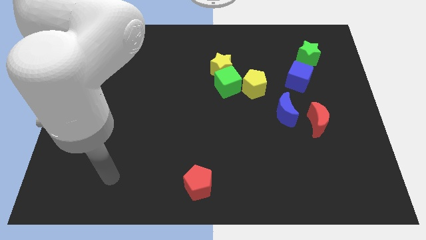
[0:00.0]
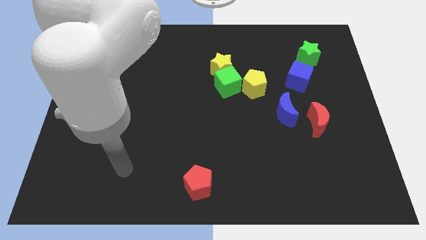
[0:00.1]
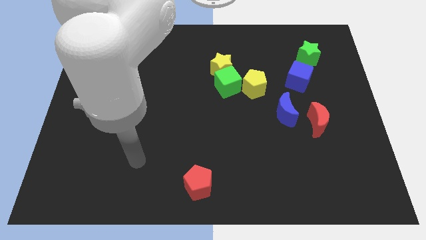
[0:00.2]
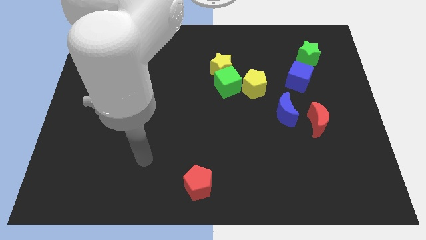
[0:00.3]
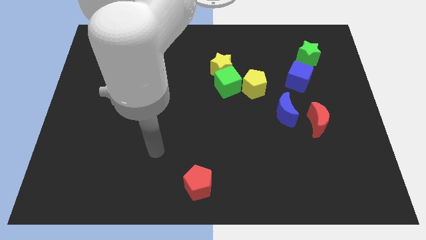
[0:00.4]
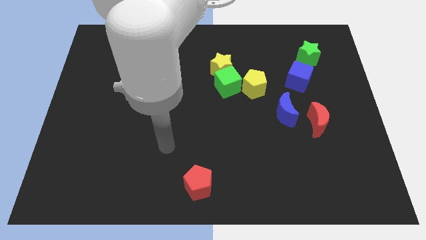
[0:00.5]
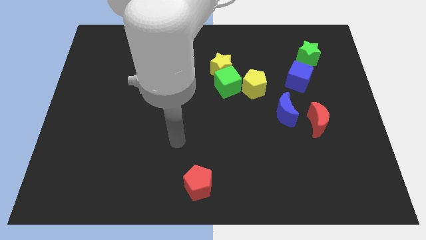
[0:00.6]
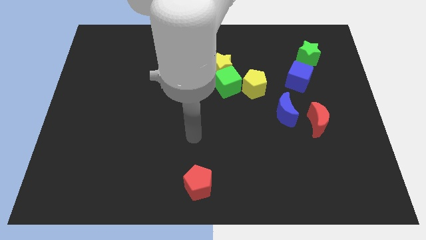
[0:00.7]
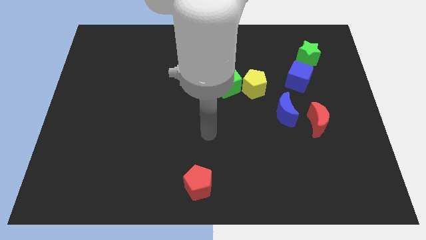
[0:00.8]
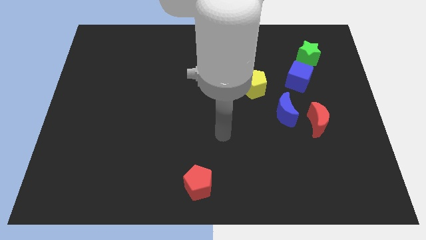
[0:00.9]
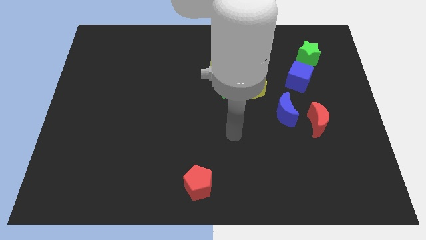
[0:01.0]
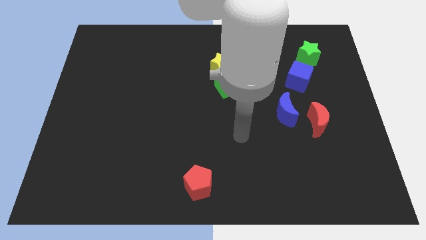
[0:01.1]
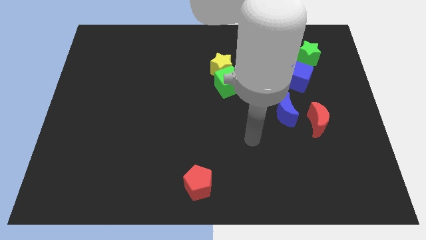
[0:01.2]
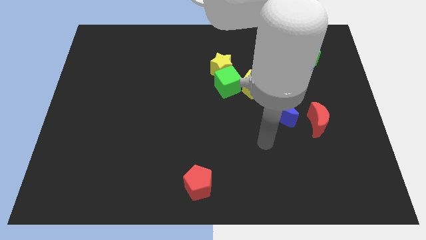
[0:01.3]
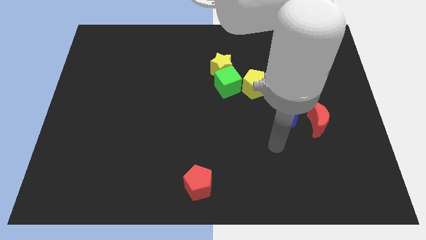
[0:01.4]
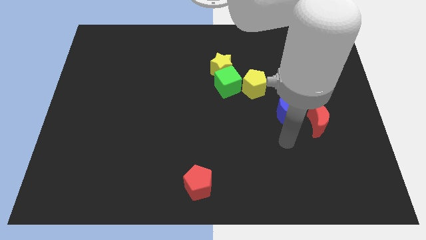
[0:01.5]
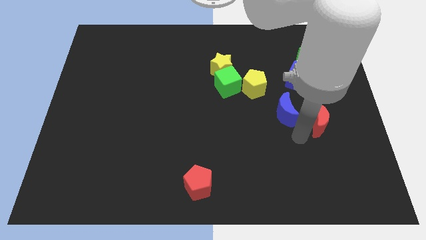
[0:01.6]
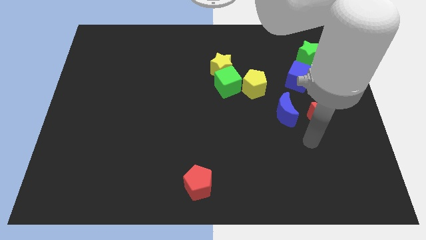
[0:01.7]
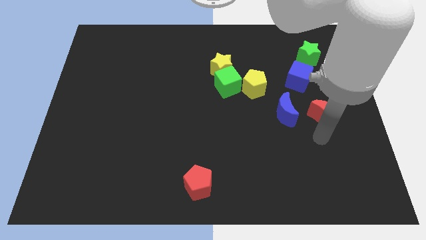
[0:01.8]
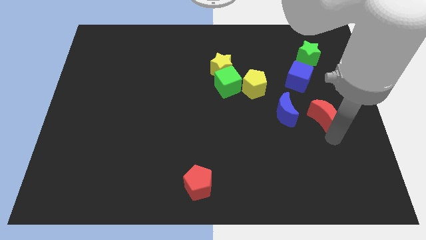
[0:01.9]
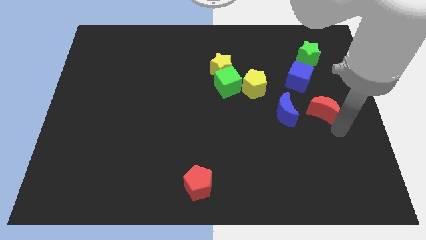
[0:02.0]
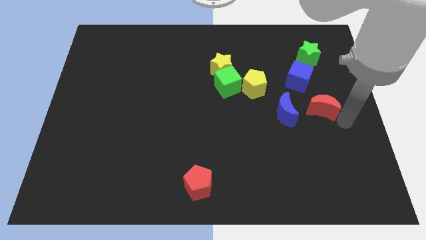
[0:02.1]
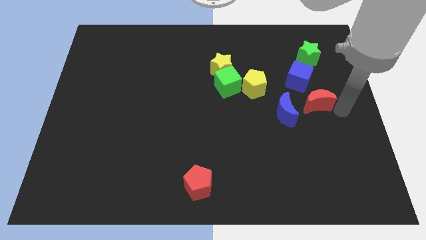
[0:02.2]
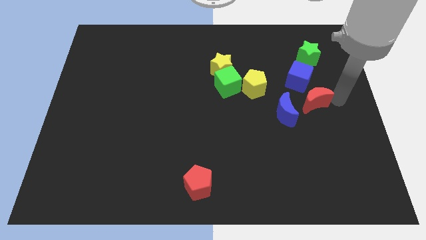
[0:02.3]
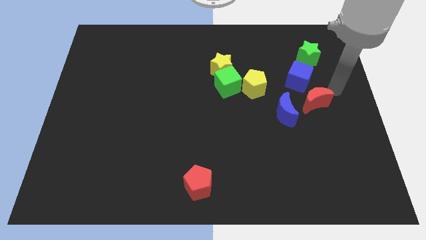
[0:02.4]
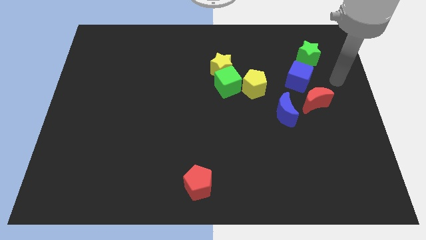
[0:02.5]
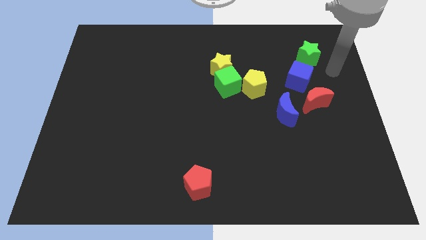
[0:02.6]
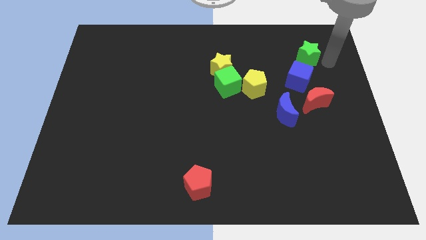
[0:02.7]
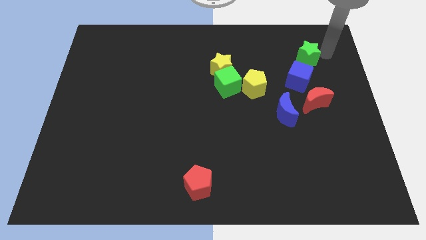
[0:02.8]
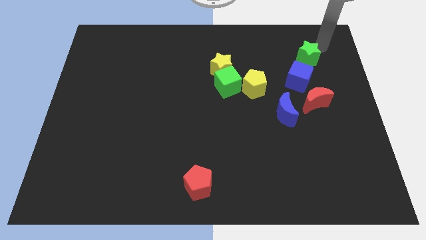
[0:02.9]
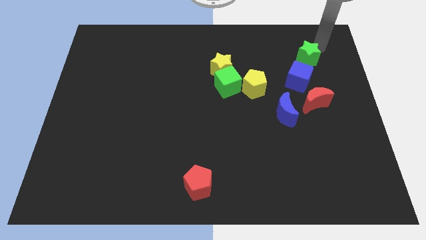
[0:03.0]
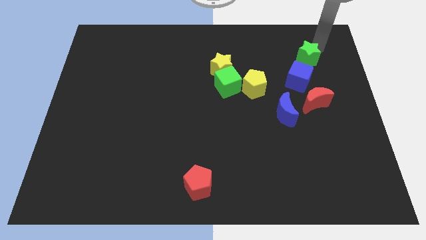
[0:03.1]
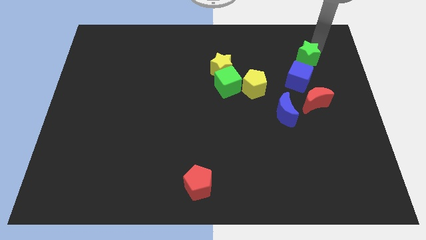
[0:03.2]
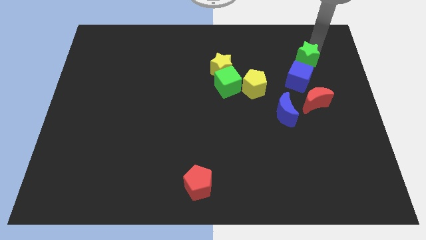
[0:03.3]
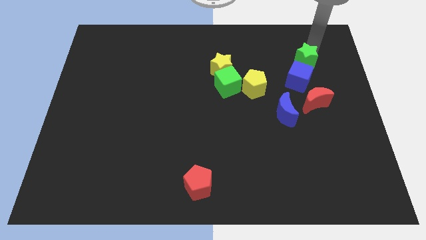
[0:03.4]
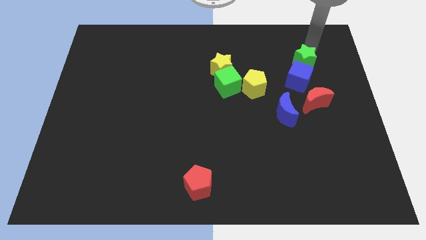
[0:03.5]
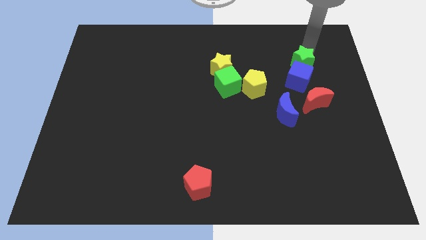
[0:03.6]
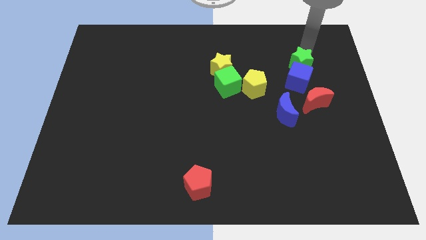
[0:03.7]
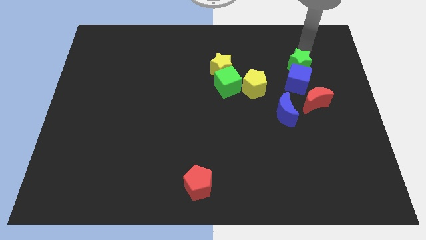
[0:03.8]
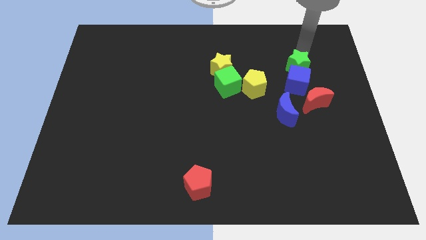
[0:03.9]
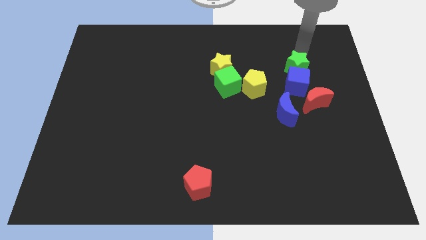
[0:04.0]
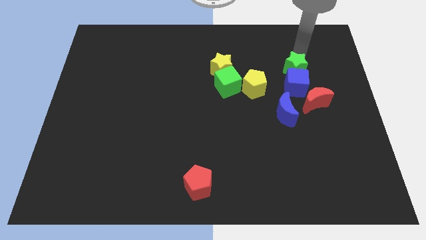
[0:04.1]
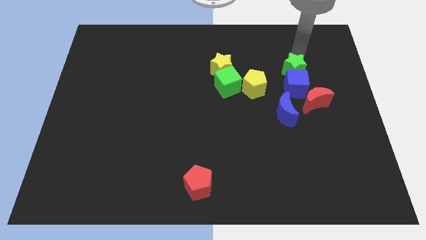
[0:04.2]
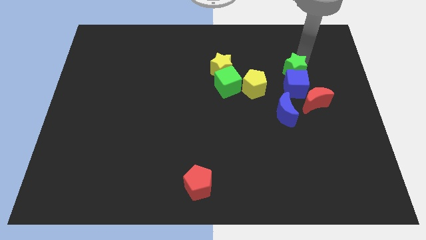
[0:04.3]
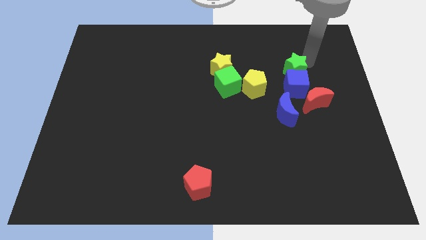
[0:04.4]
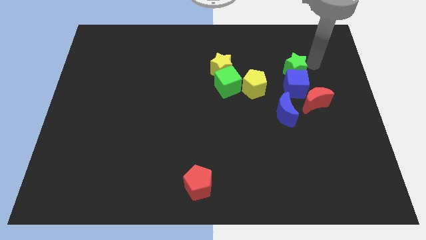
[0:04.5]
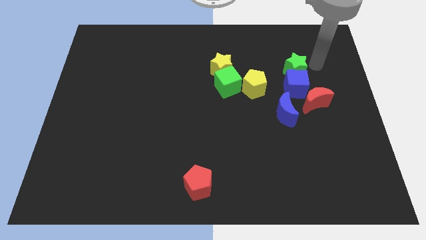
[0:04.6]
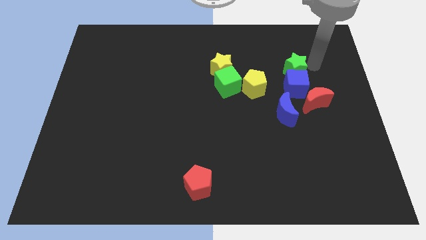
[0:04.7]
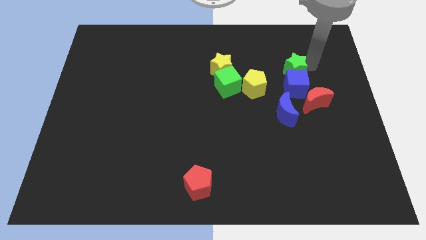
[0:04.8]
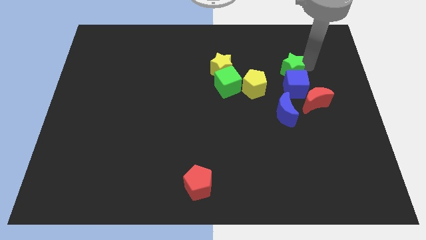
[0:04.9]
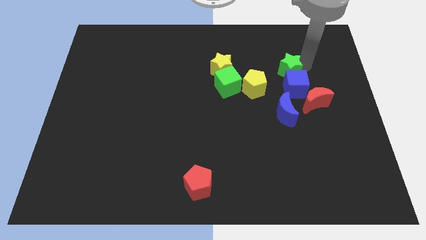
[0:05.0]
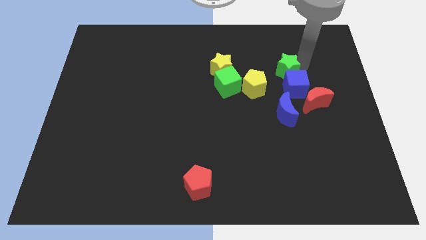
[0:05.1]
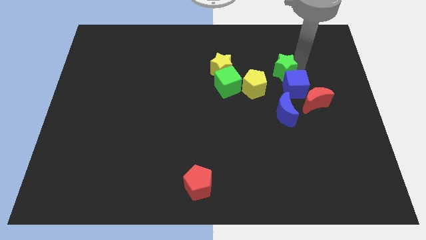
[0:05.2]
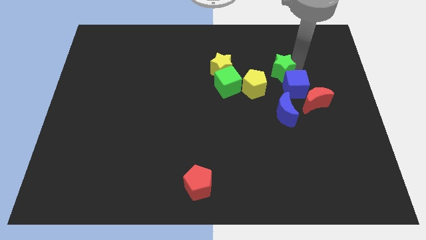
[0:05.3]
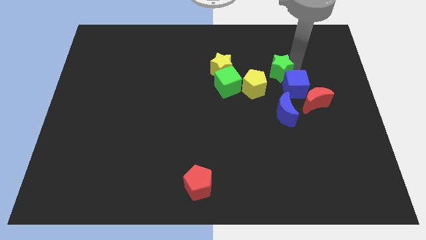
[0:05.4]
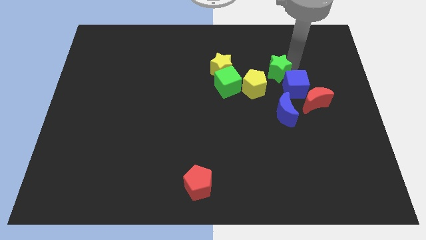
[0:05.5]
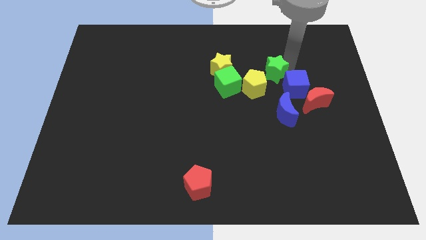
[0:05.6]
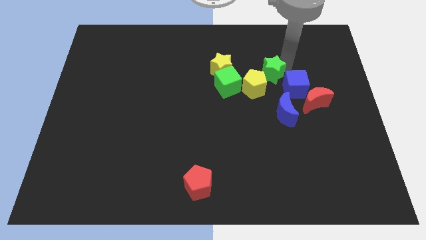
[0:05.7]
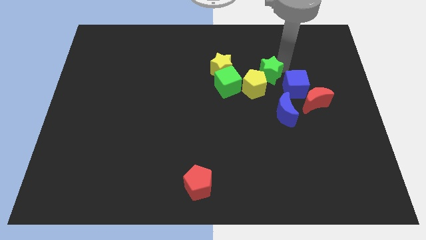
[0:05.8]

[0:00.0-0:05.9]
put the green star close to the yellow pentagon

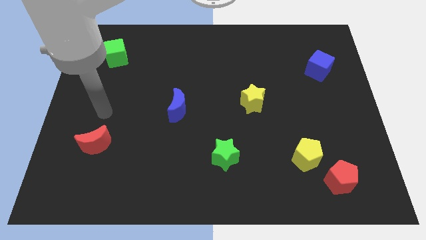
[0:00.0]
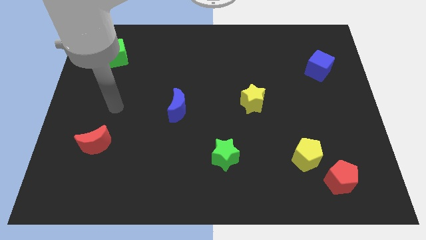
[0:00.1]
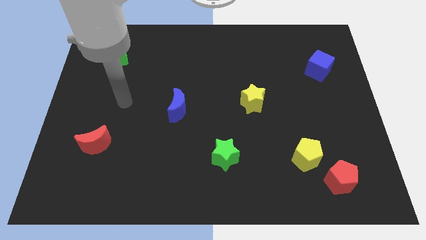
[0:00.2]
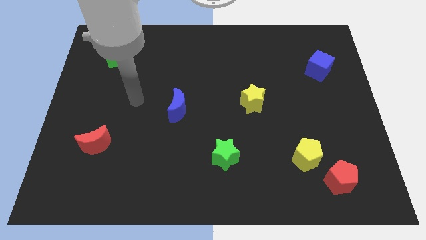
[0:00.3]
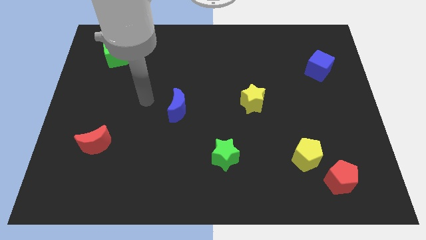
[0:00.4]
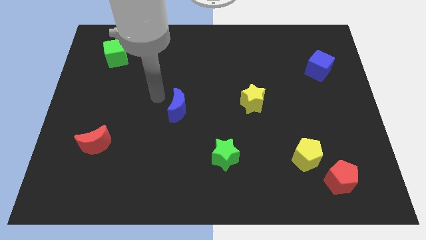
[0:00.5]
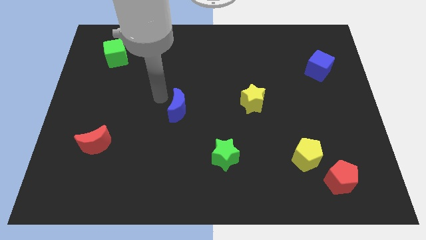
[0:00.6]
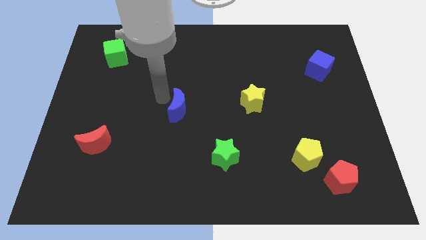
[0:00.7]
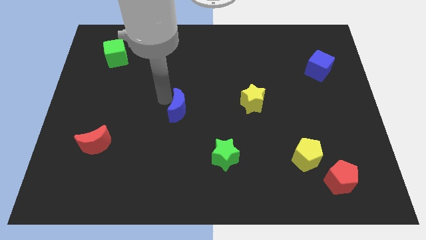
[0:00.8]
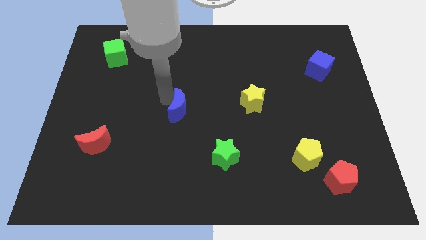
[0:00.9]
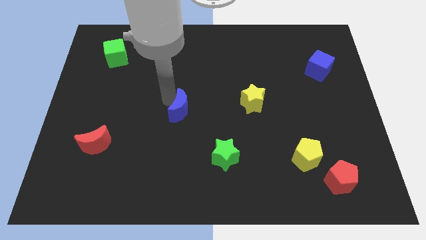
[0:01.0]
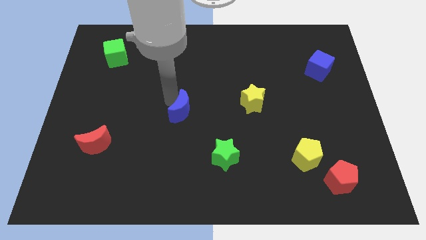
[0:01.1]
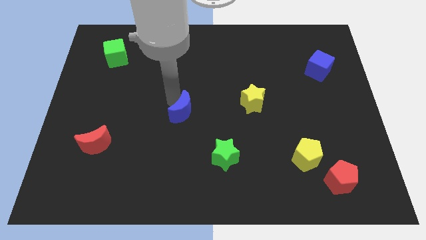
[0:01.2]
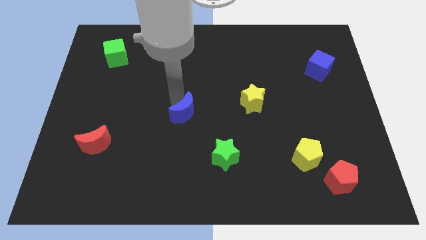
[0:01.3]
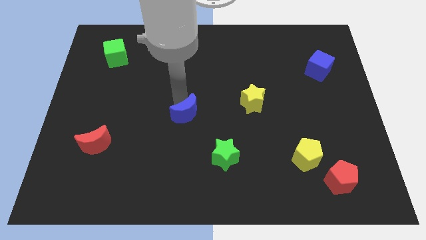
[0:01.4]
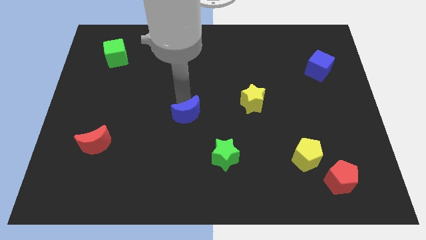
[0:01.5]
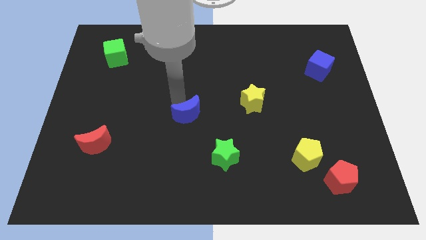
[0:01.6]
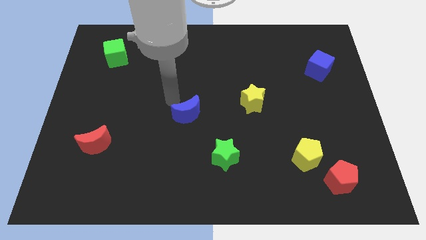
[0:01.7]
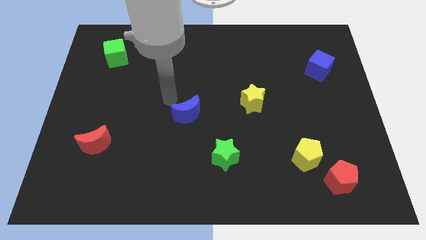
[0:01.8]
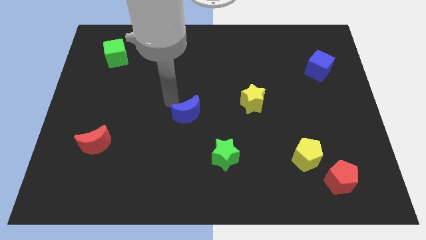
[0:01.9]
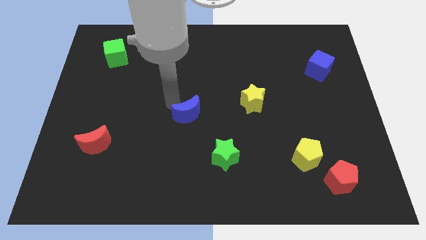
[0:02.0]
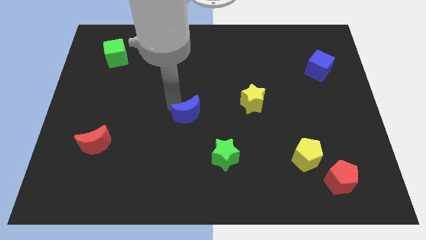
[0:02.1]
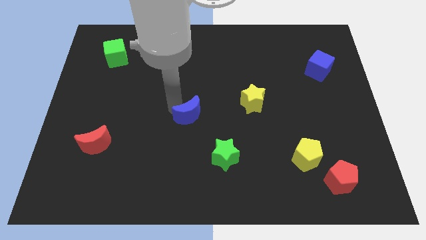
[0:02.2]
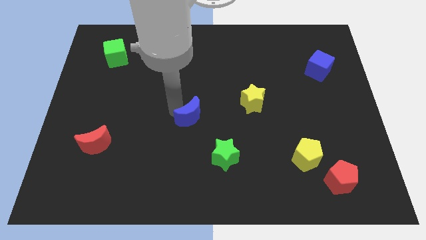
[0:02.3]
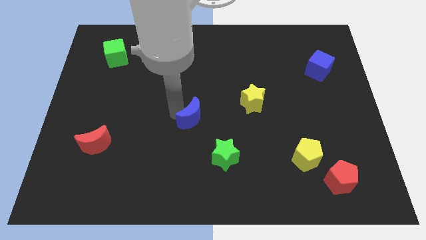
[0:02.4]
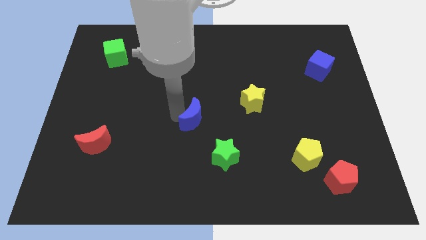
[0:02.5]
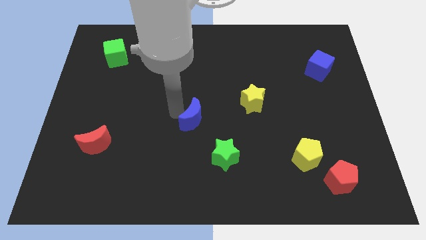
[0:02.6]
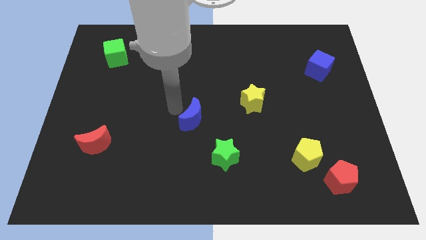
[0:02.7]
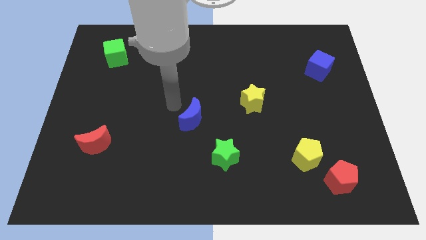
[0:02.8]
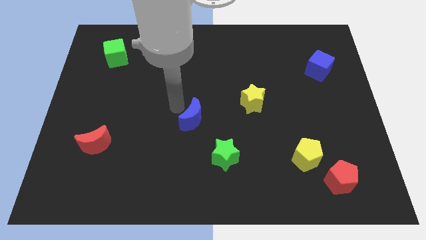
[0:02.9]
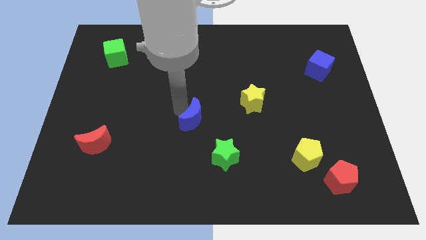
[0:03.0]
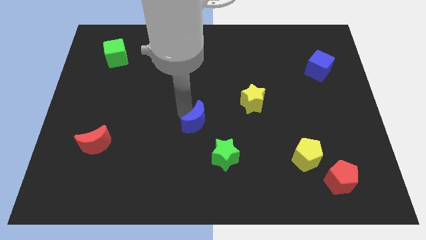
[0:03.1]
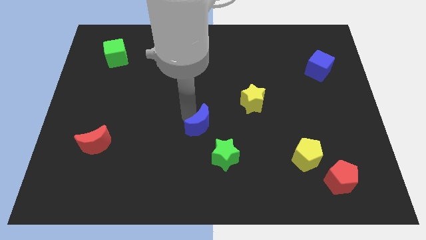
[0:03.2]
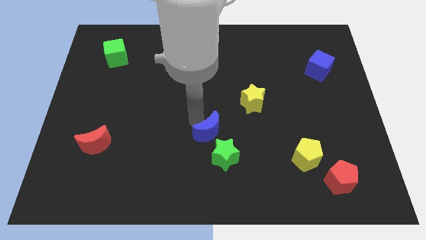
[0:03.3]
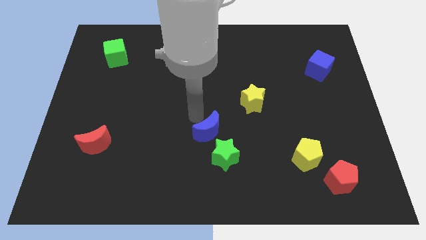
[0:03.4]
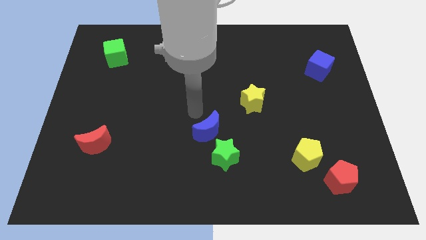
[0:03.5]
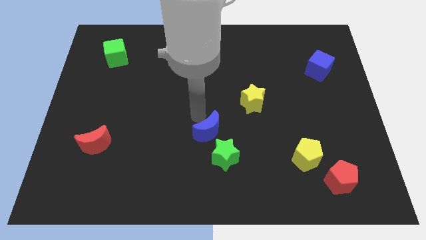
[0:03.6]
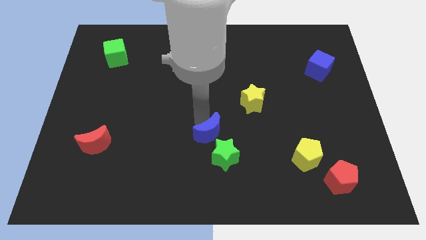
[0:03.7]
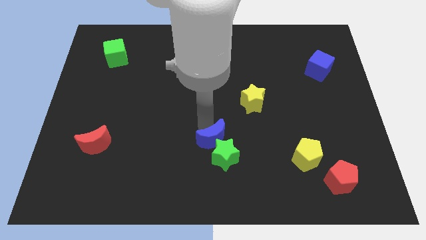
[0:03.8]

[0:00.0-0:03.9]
push the blue moon close to the green star
